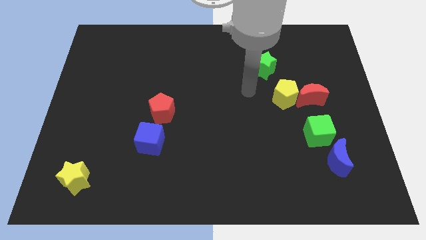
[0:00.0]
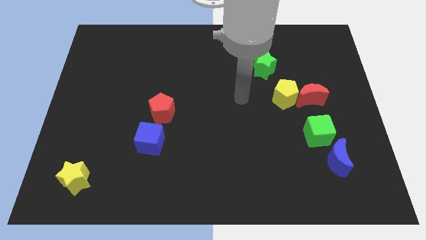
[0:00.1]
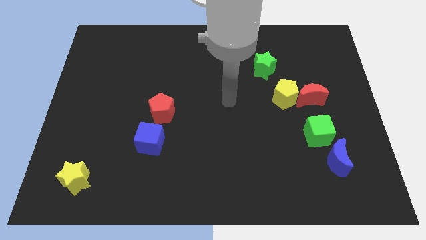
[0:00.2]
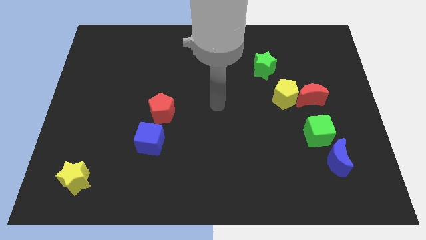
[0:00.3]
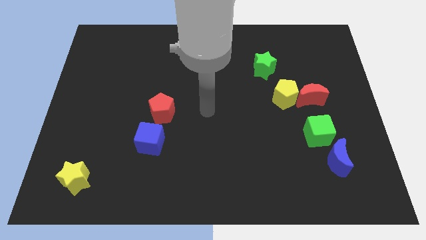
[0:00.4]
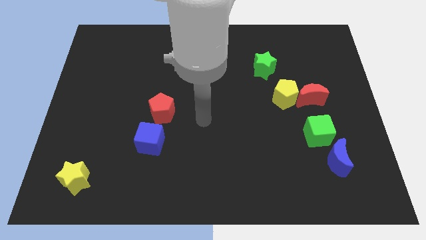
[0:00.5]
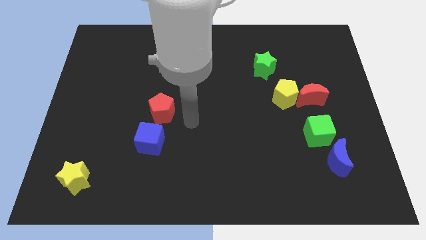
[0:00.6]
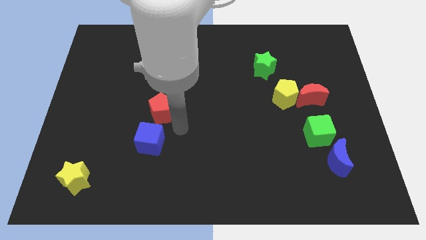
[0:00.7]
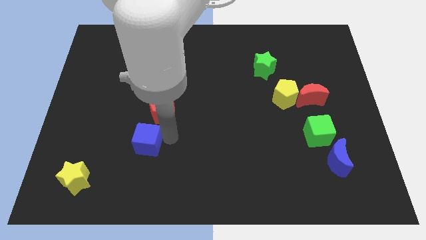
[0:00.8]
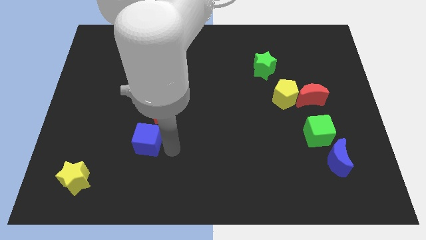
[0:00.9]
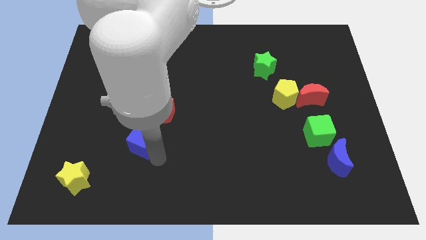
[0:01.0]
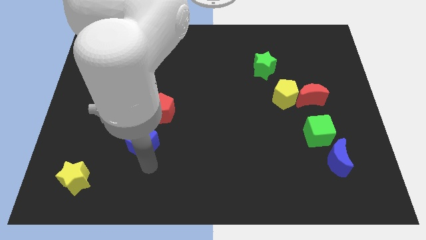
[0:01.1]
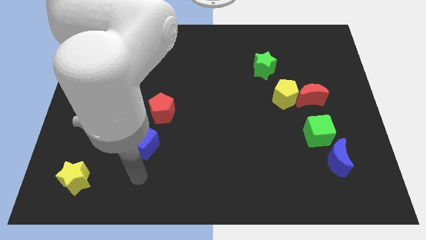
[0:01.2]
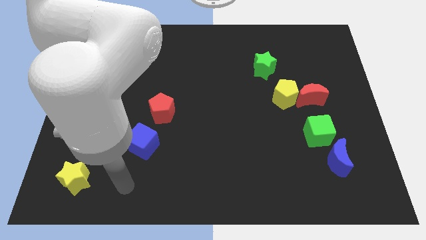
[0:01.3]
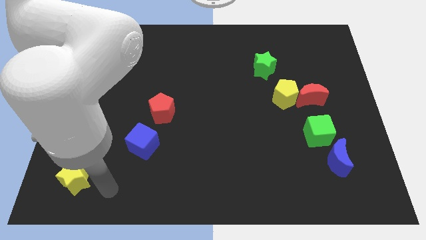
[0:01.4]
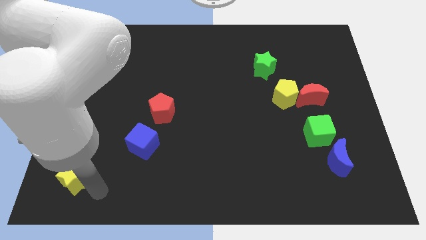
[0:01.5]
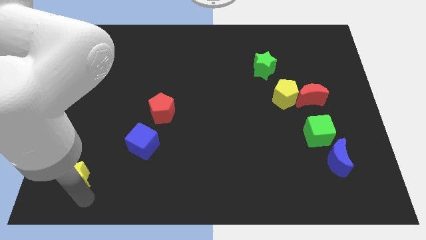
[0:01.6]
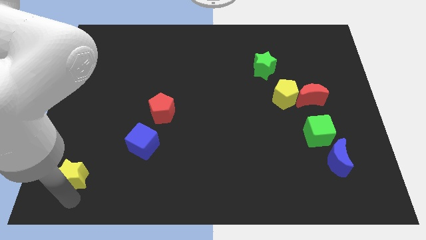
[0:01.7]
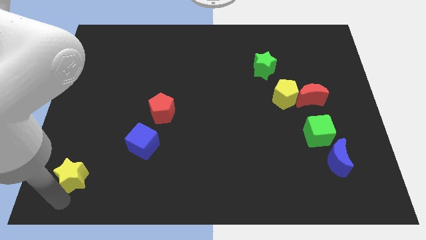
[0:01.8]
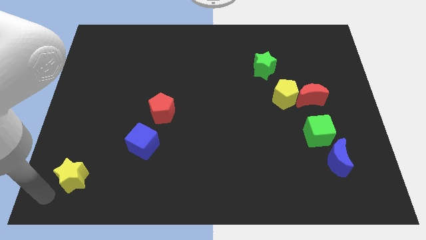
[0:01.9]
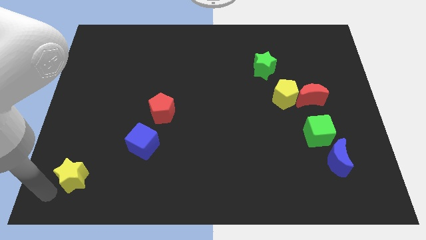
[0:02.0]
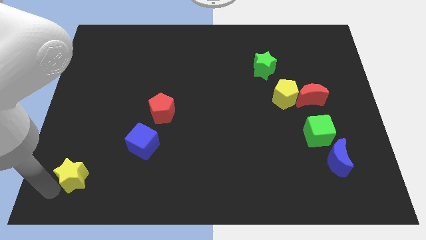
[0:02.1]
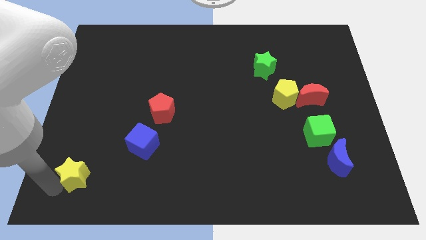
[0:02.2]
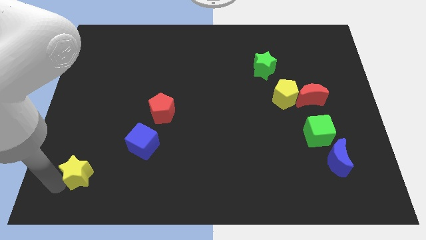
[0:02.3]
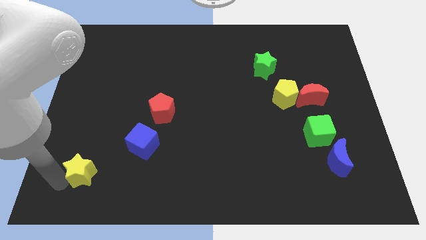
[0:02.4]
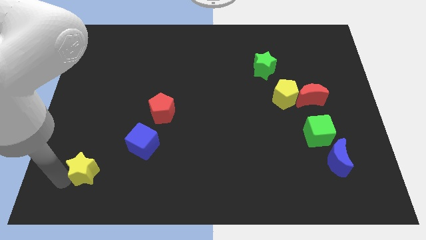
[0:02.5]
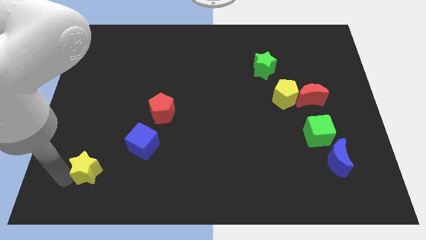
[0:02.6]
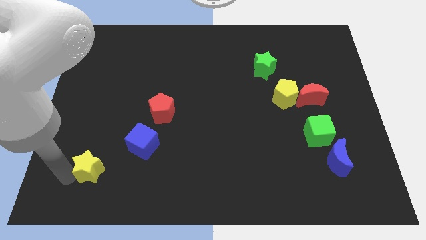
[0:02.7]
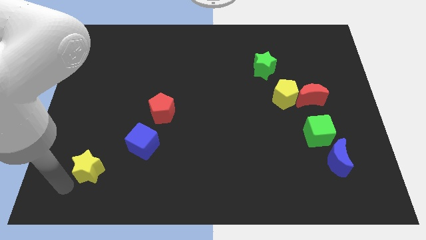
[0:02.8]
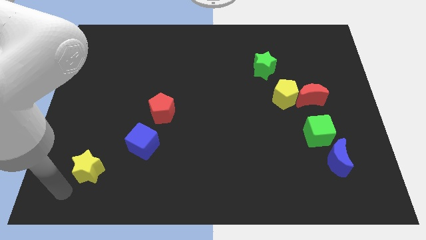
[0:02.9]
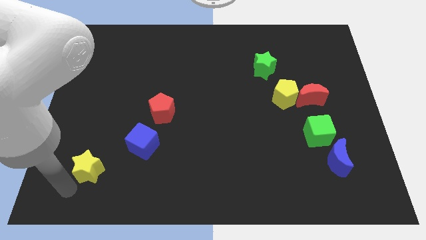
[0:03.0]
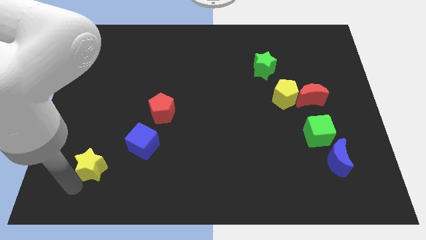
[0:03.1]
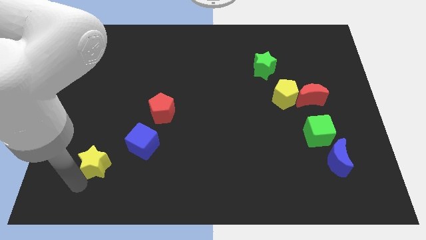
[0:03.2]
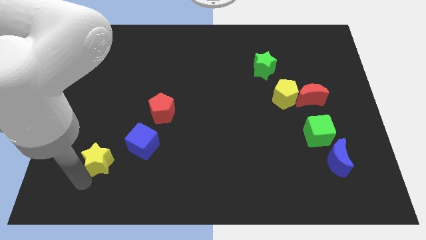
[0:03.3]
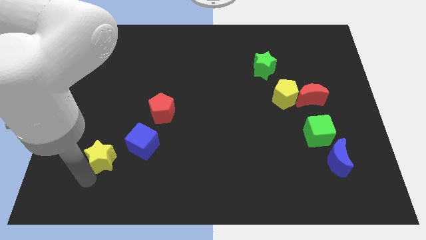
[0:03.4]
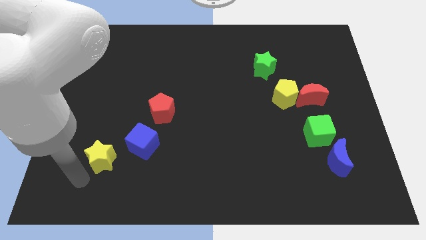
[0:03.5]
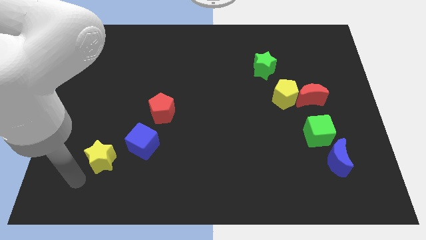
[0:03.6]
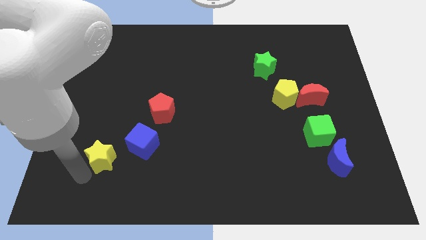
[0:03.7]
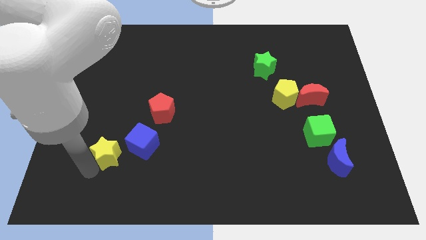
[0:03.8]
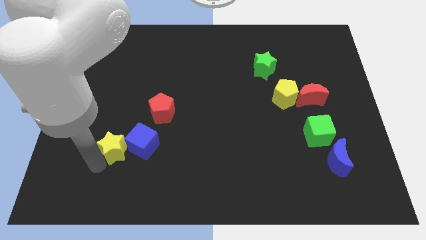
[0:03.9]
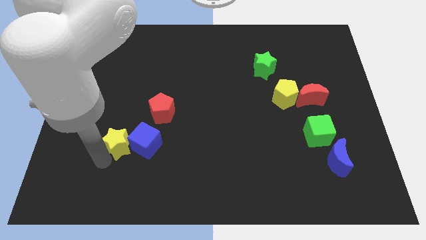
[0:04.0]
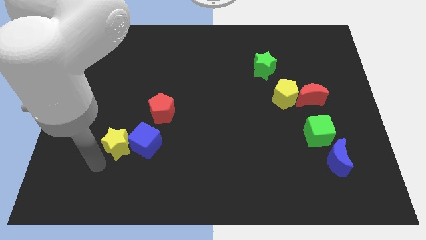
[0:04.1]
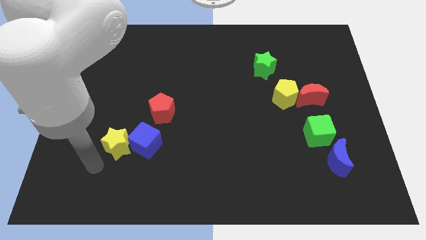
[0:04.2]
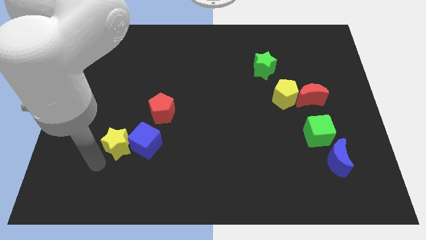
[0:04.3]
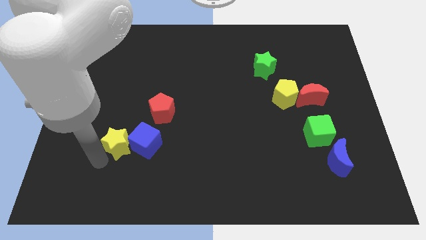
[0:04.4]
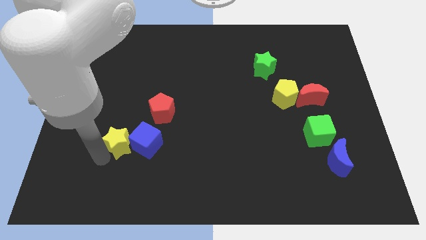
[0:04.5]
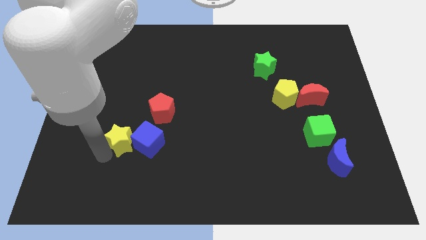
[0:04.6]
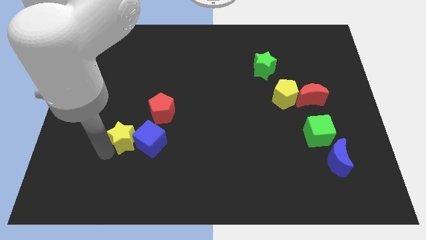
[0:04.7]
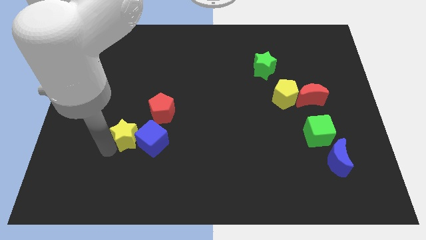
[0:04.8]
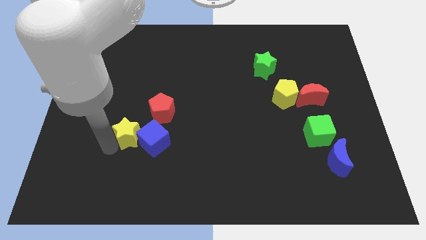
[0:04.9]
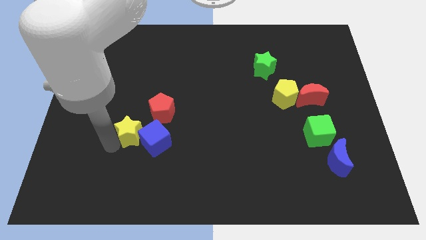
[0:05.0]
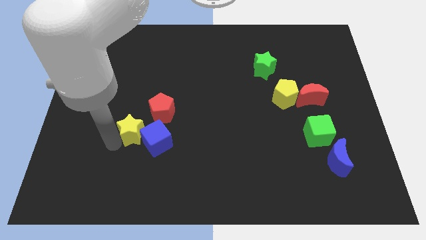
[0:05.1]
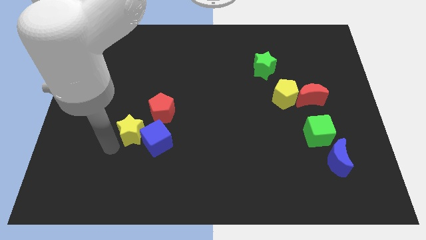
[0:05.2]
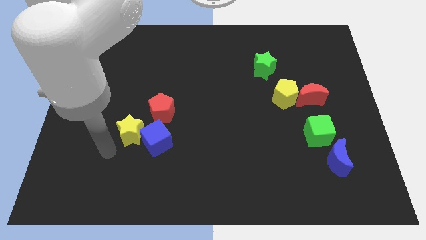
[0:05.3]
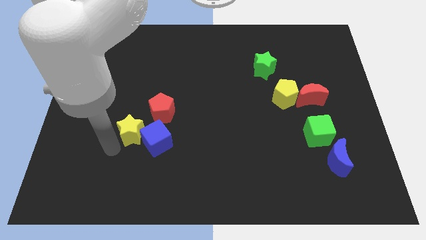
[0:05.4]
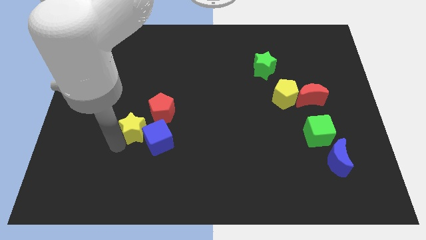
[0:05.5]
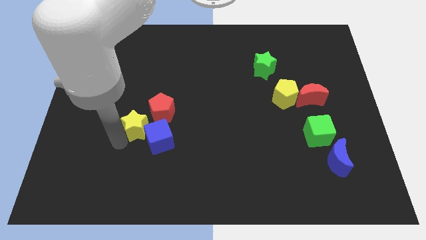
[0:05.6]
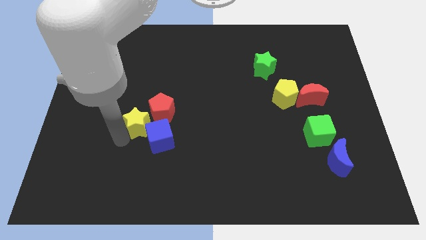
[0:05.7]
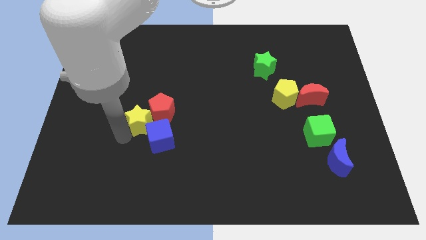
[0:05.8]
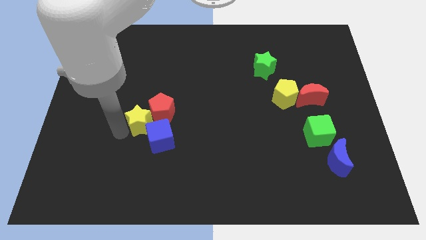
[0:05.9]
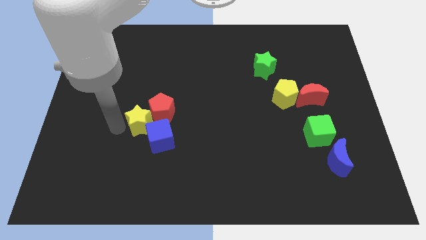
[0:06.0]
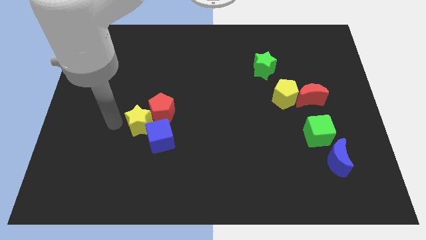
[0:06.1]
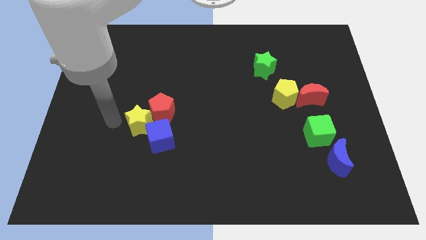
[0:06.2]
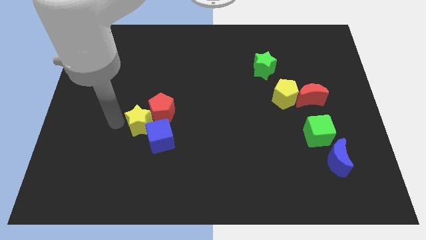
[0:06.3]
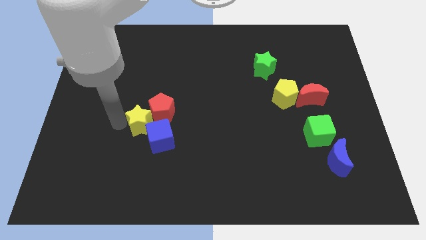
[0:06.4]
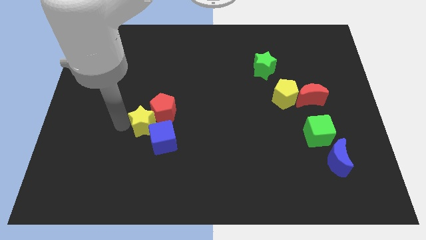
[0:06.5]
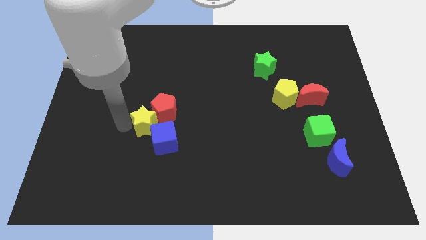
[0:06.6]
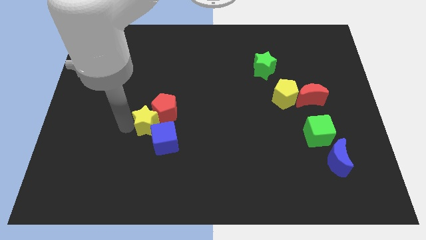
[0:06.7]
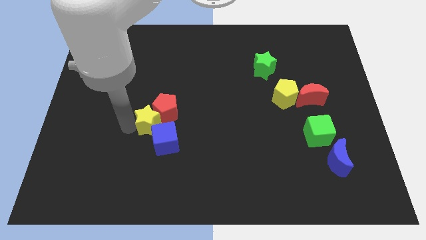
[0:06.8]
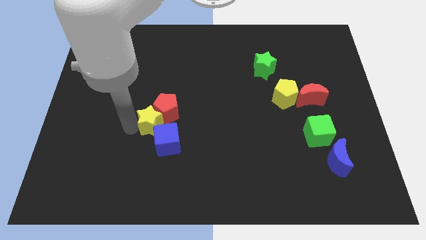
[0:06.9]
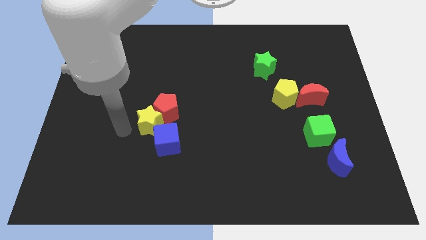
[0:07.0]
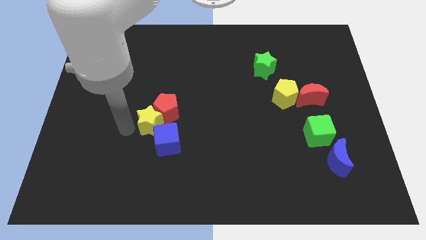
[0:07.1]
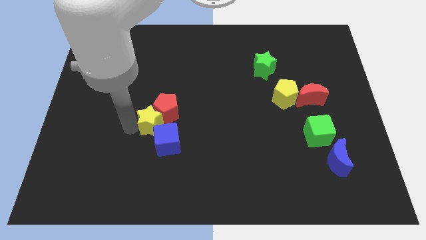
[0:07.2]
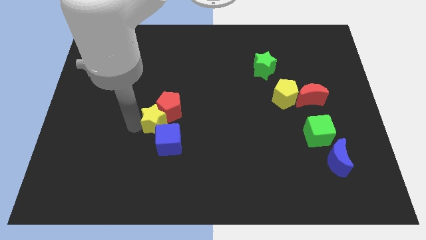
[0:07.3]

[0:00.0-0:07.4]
move the yellow star up and right

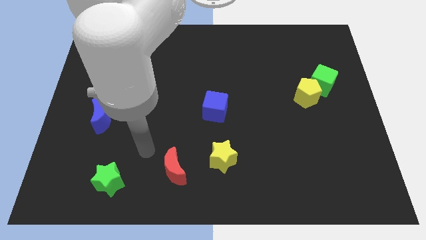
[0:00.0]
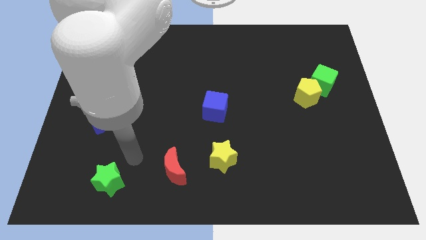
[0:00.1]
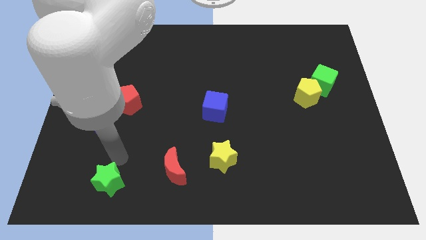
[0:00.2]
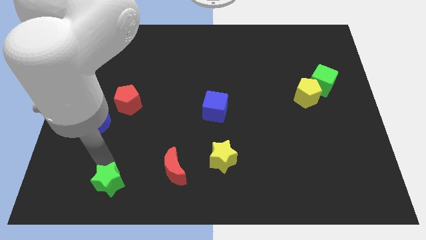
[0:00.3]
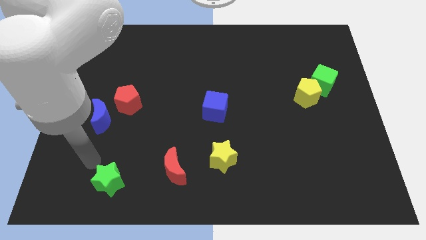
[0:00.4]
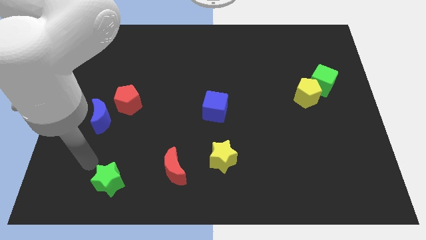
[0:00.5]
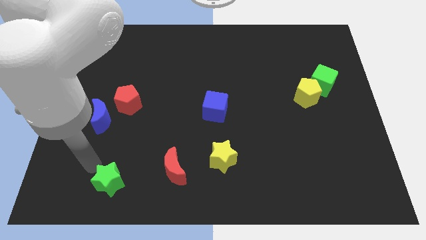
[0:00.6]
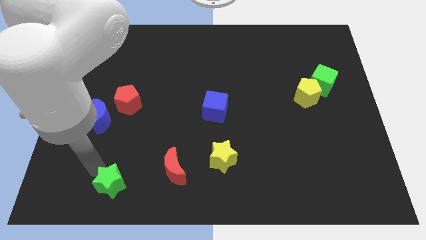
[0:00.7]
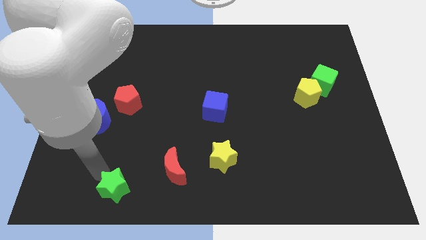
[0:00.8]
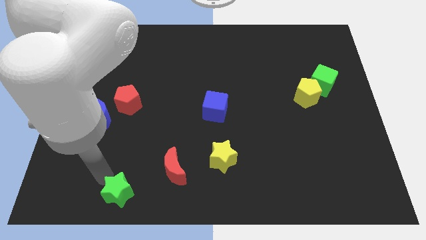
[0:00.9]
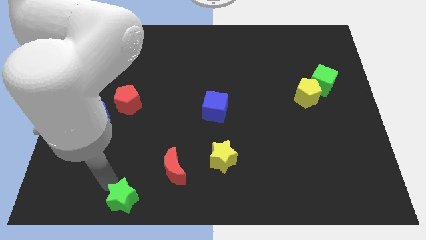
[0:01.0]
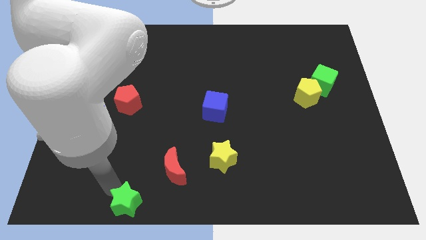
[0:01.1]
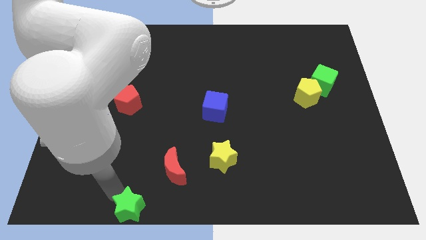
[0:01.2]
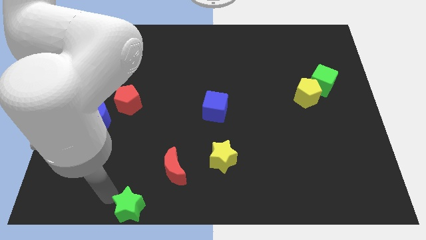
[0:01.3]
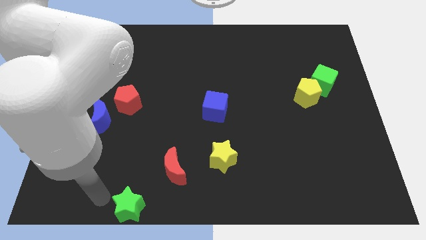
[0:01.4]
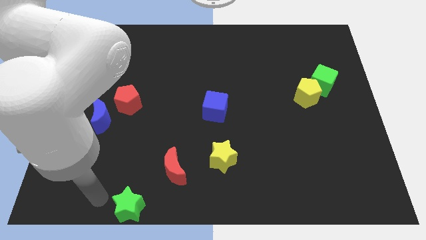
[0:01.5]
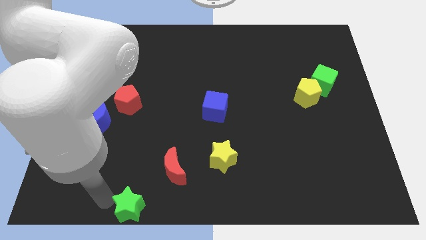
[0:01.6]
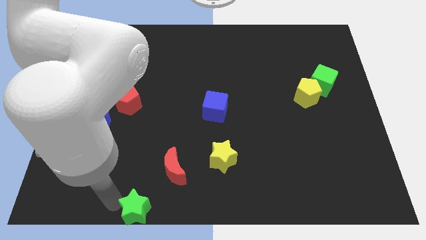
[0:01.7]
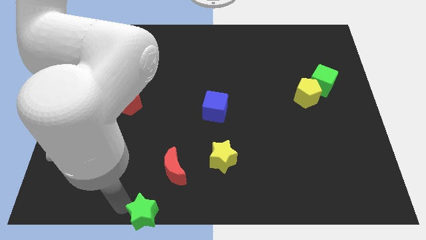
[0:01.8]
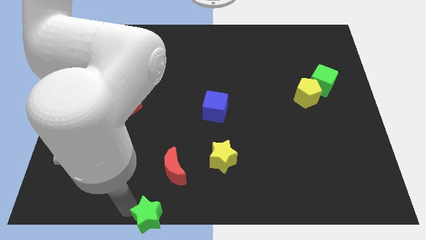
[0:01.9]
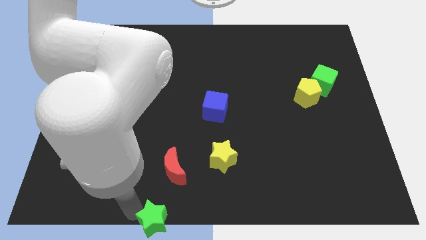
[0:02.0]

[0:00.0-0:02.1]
push the green star right somewhat
